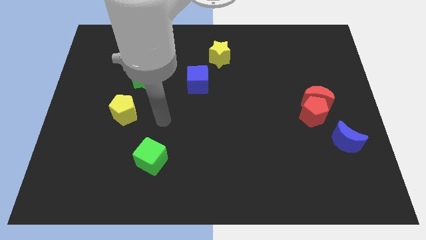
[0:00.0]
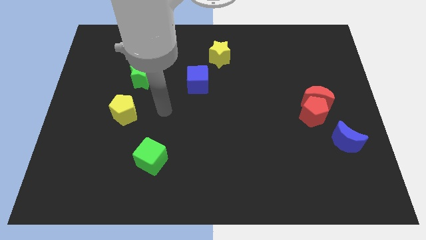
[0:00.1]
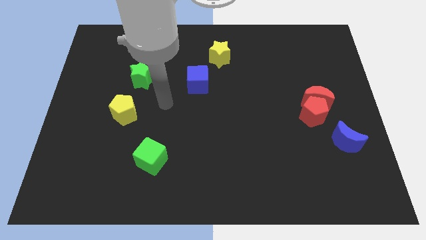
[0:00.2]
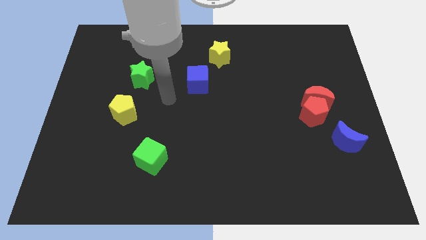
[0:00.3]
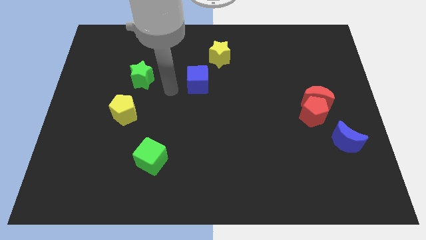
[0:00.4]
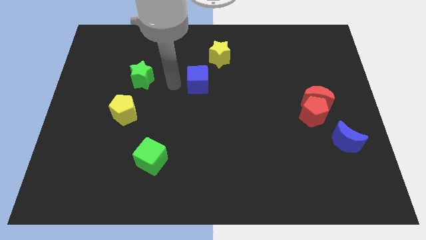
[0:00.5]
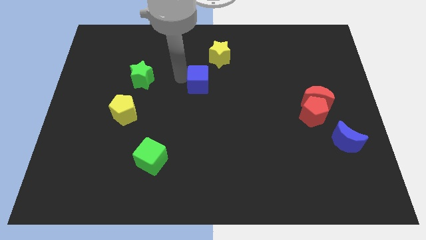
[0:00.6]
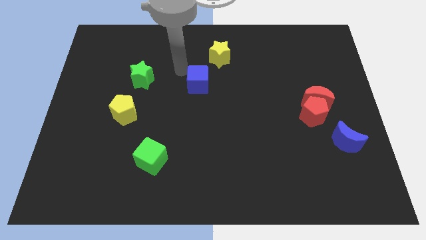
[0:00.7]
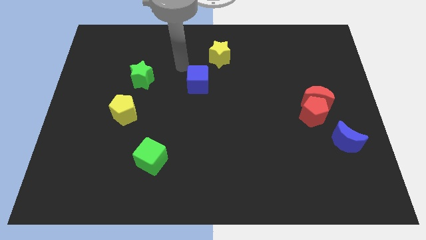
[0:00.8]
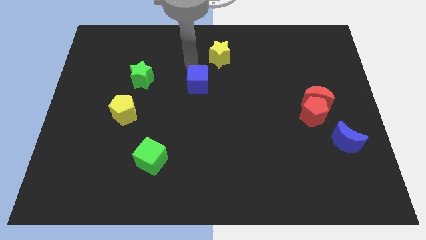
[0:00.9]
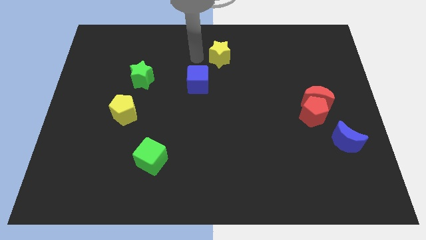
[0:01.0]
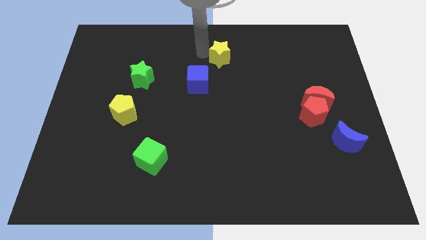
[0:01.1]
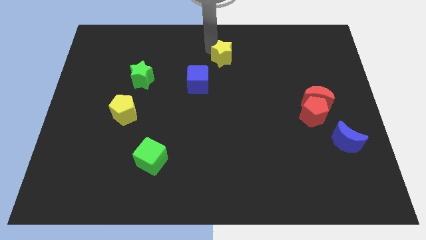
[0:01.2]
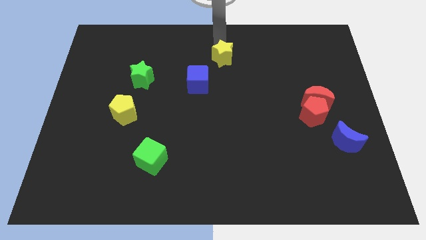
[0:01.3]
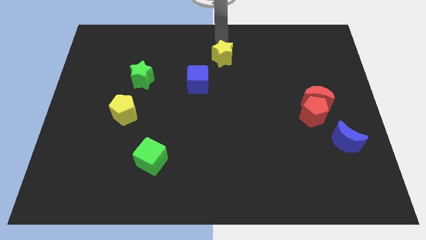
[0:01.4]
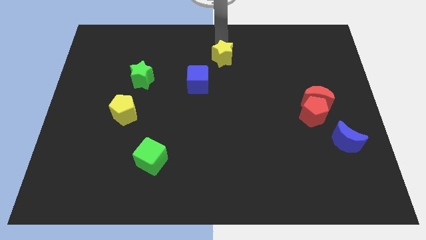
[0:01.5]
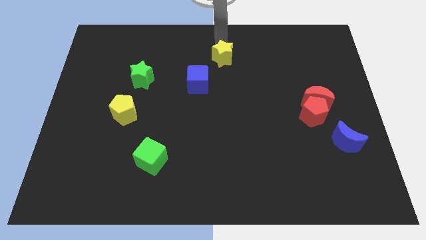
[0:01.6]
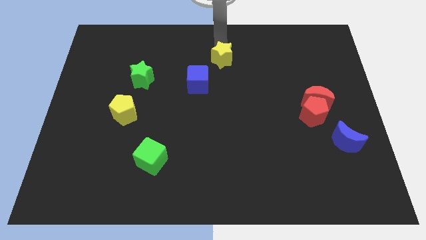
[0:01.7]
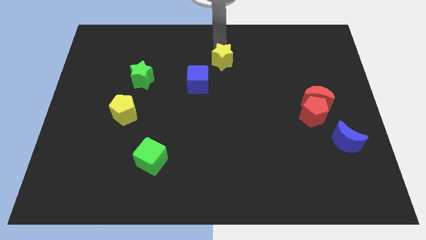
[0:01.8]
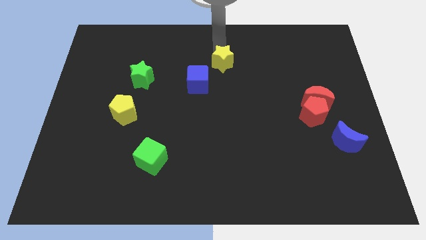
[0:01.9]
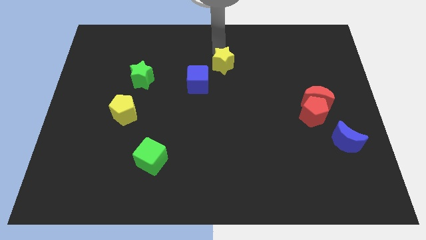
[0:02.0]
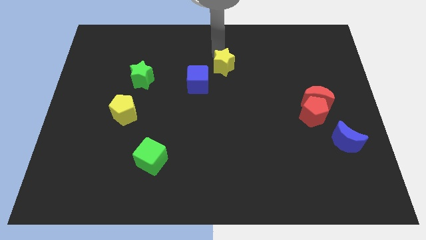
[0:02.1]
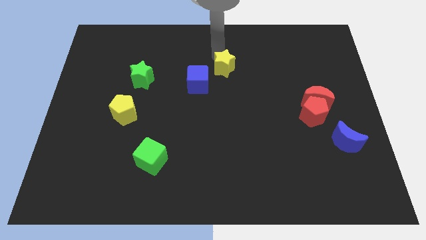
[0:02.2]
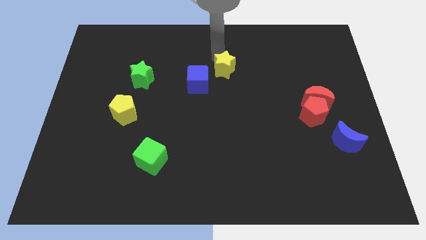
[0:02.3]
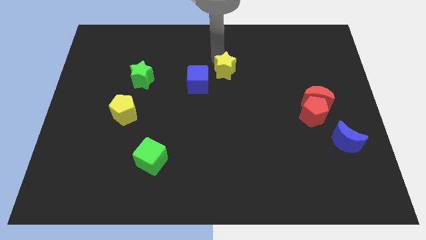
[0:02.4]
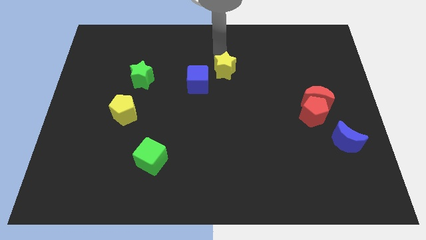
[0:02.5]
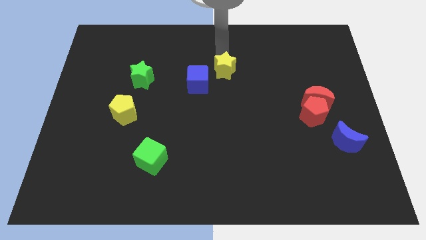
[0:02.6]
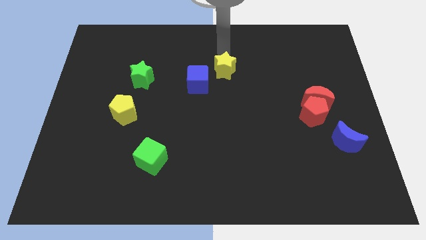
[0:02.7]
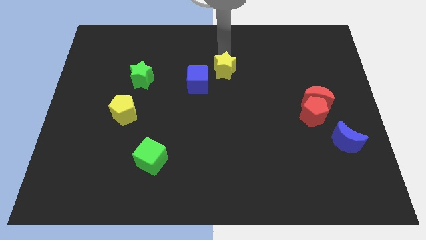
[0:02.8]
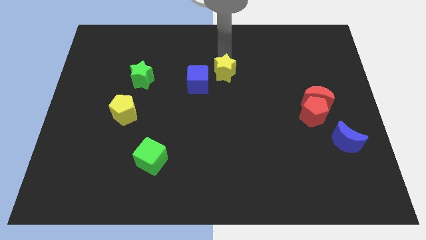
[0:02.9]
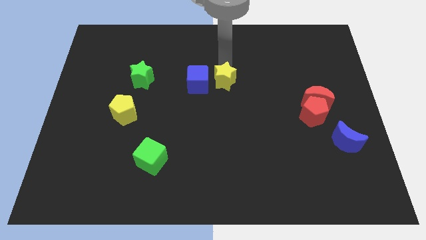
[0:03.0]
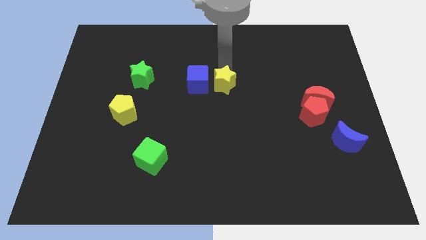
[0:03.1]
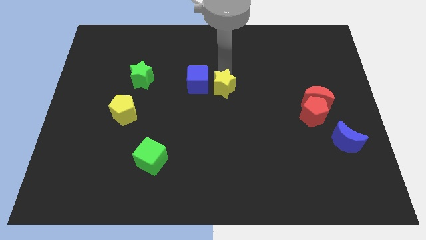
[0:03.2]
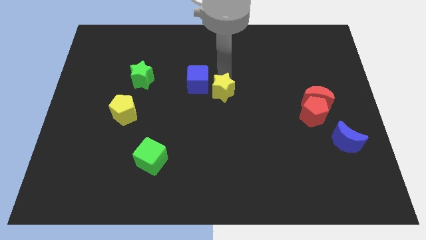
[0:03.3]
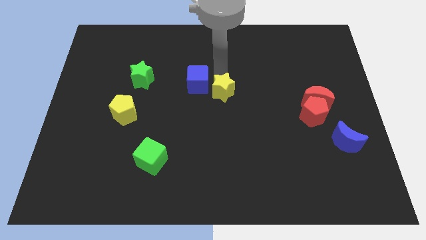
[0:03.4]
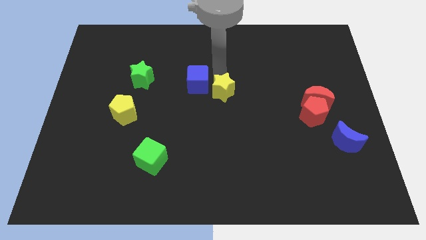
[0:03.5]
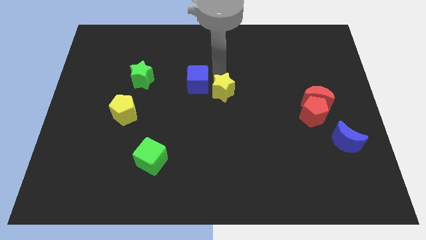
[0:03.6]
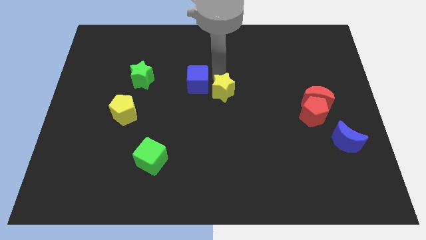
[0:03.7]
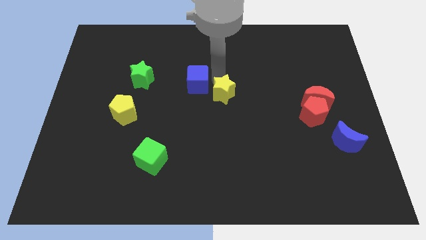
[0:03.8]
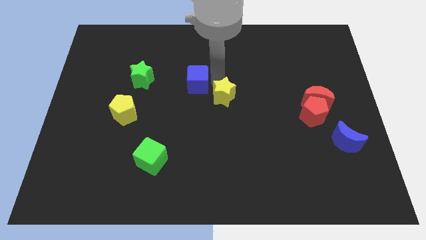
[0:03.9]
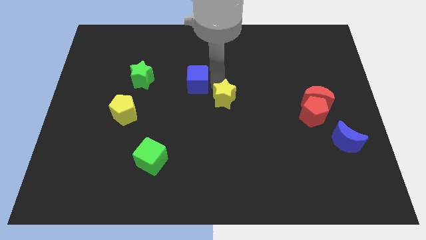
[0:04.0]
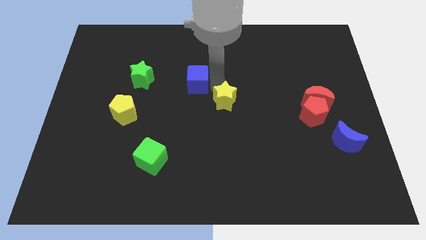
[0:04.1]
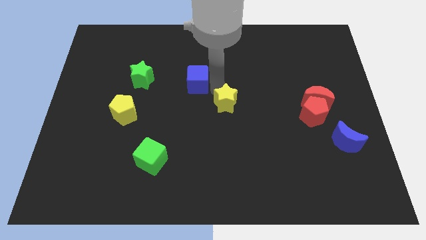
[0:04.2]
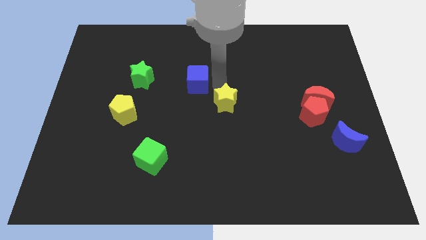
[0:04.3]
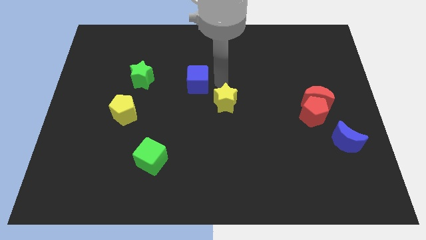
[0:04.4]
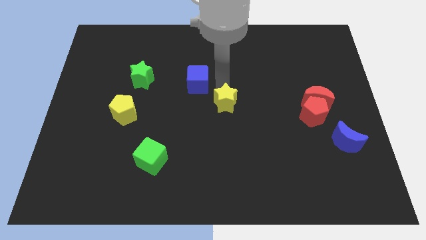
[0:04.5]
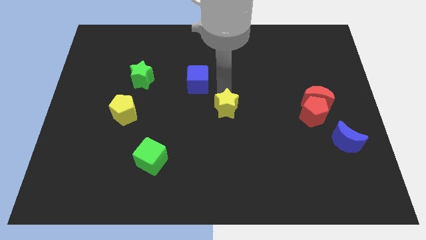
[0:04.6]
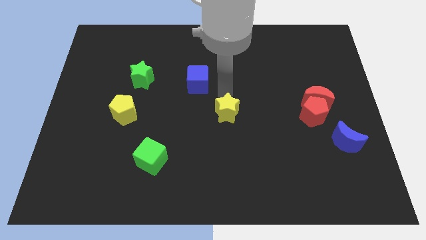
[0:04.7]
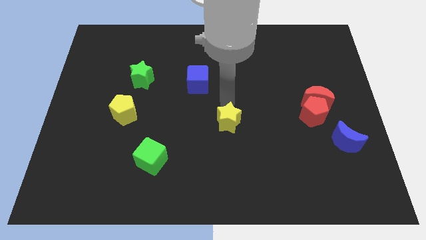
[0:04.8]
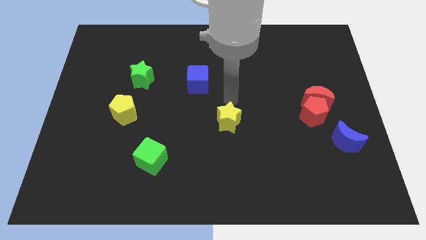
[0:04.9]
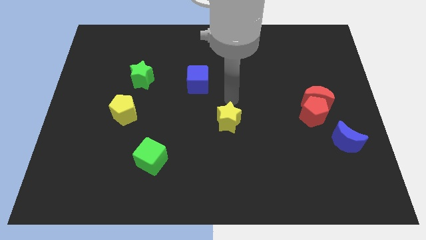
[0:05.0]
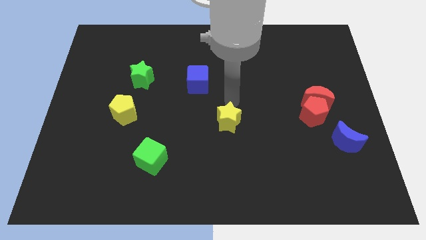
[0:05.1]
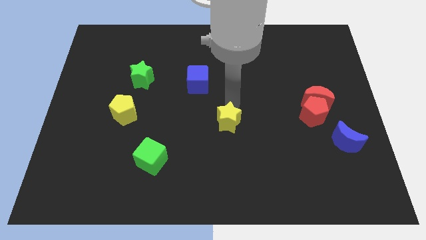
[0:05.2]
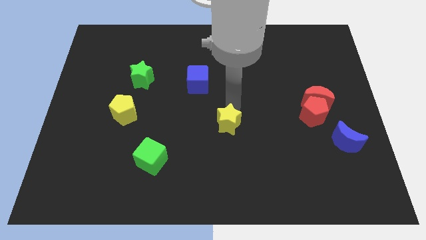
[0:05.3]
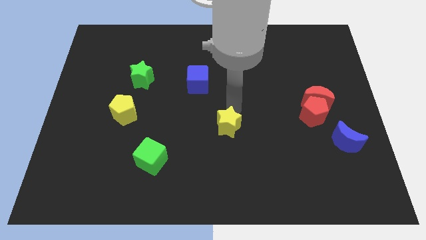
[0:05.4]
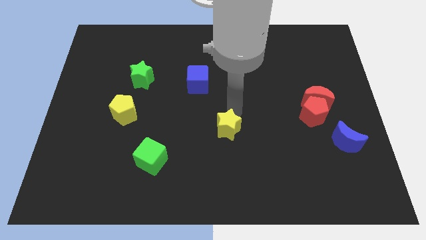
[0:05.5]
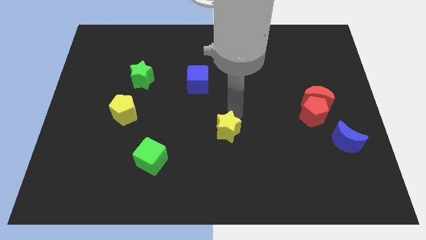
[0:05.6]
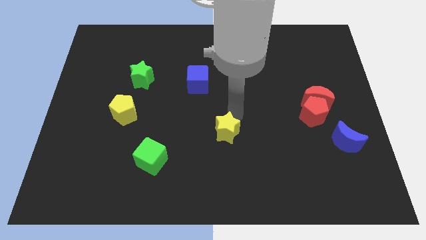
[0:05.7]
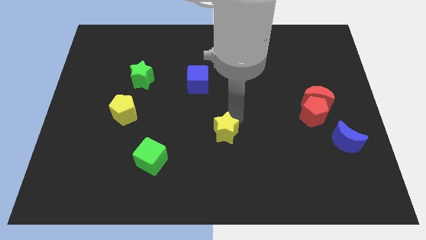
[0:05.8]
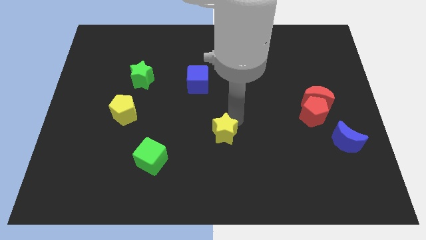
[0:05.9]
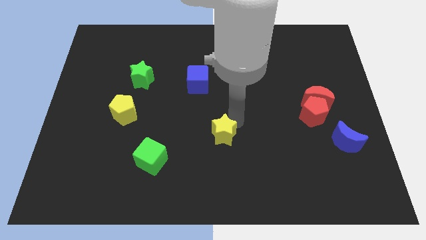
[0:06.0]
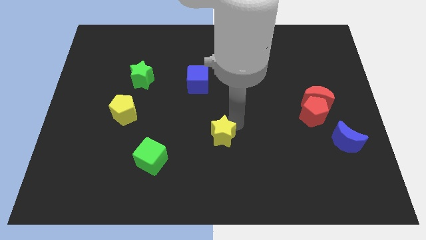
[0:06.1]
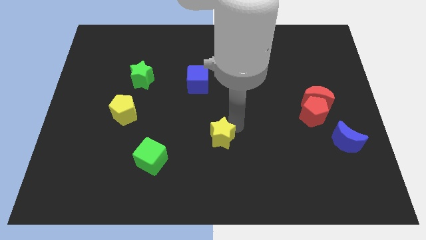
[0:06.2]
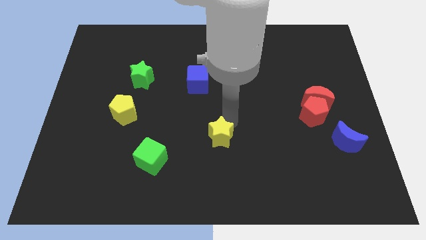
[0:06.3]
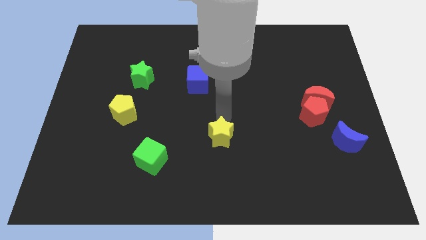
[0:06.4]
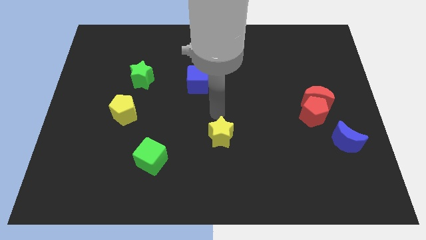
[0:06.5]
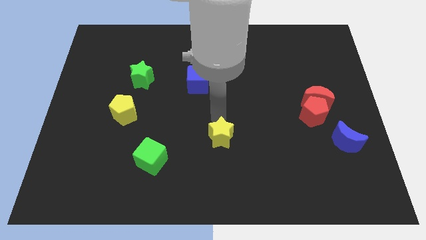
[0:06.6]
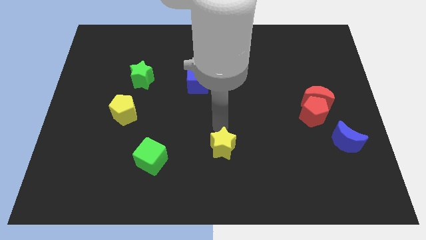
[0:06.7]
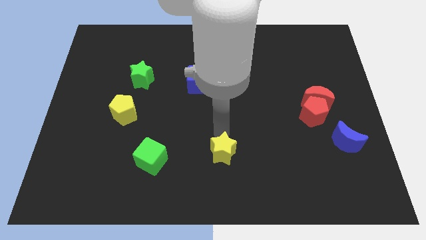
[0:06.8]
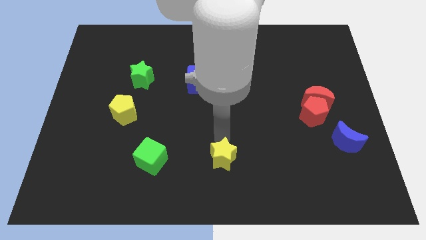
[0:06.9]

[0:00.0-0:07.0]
put the yellow star to the bottom
